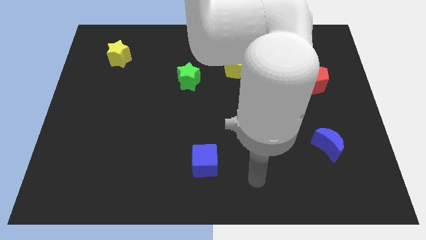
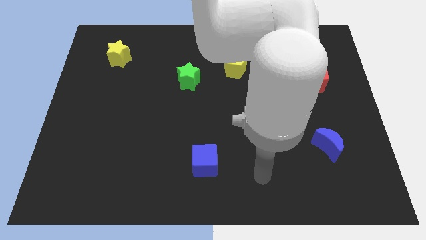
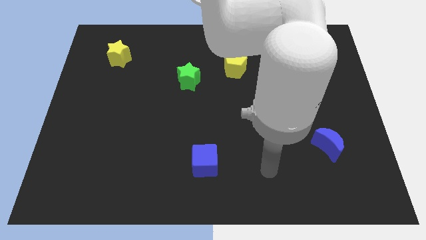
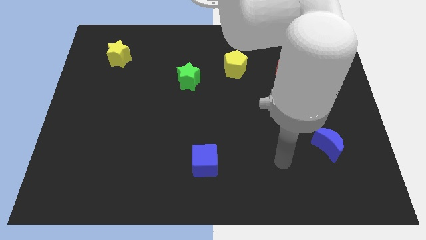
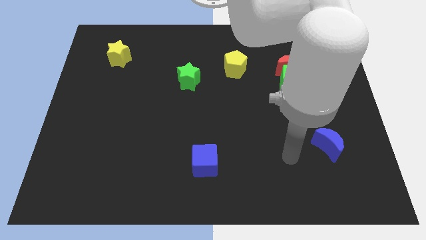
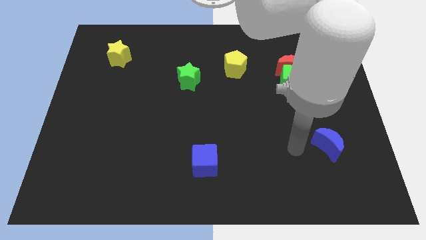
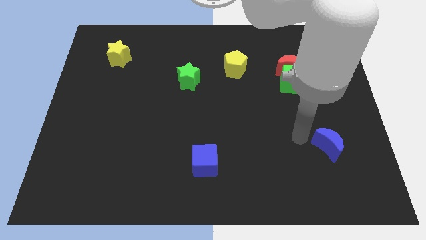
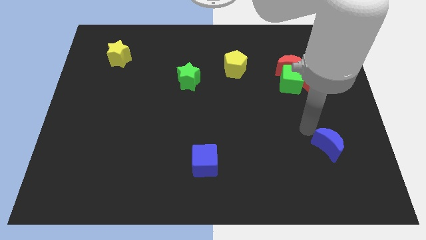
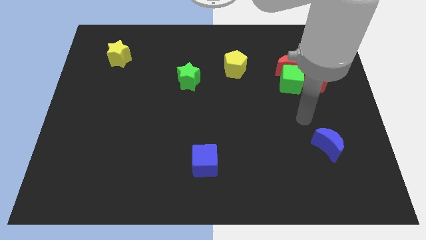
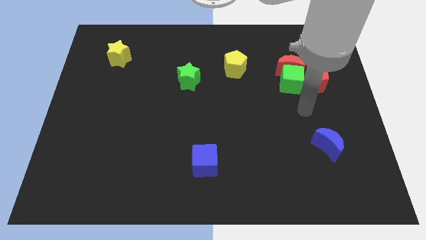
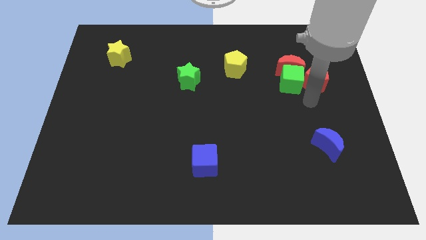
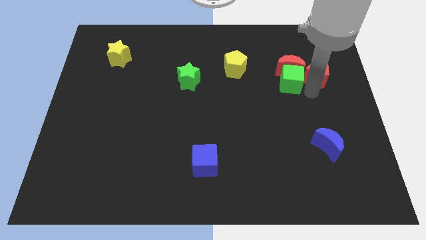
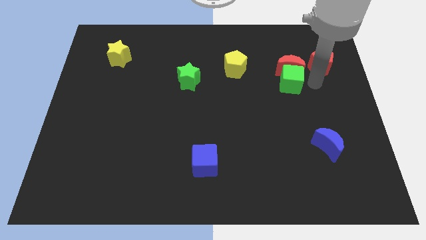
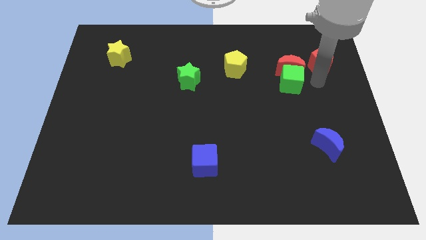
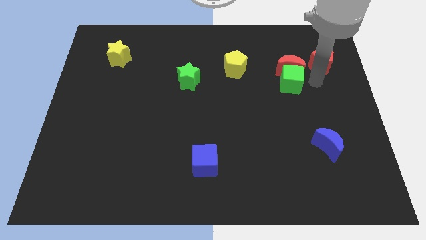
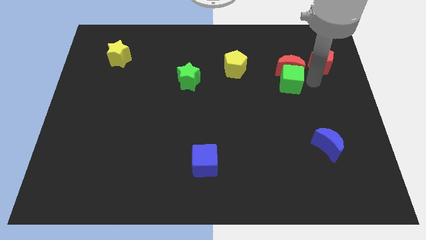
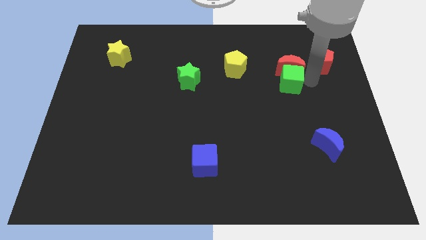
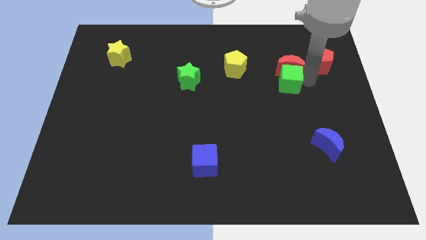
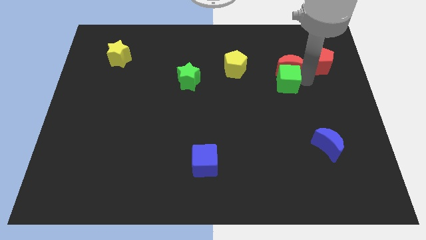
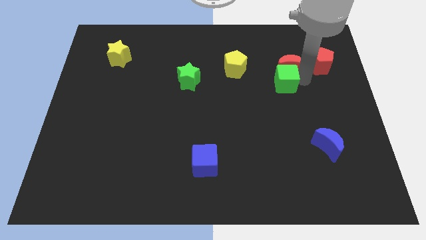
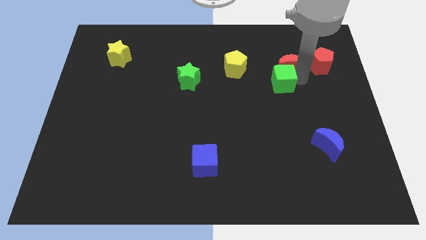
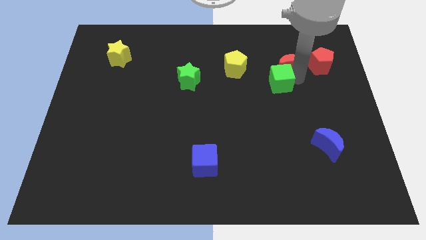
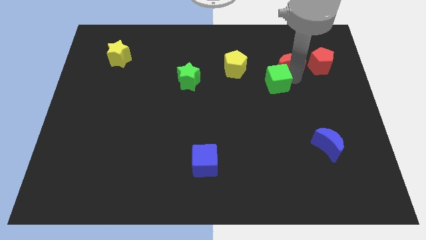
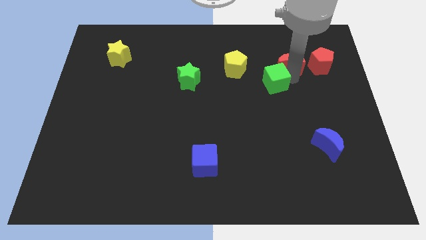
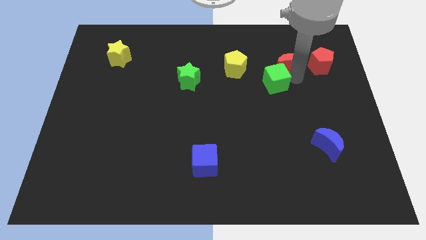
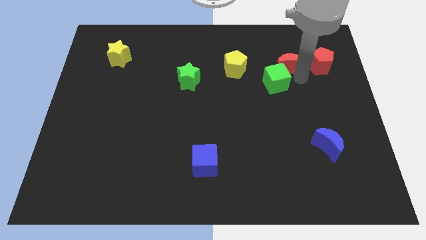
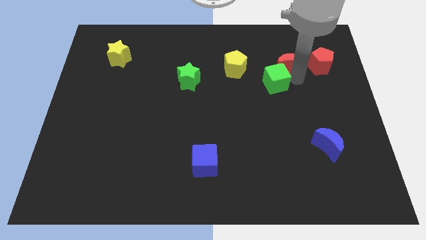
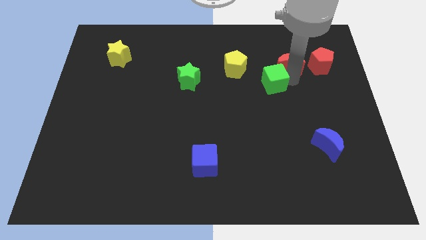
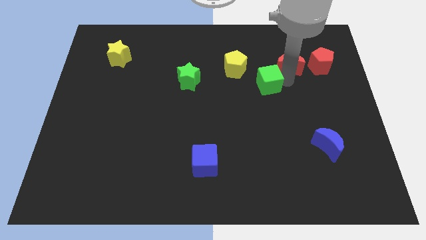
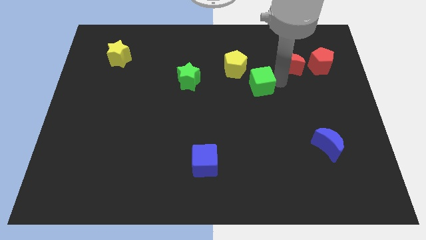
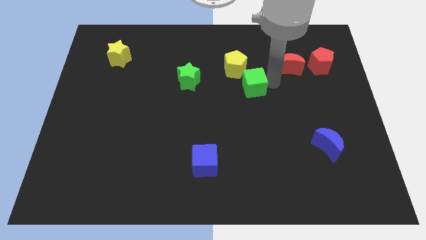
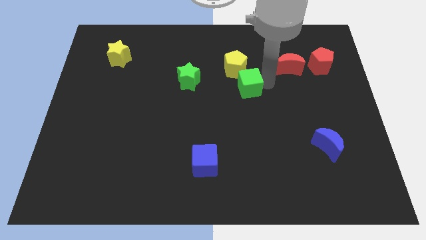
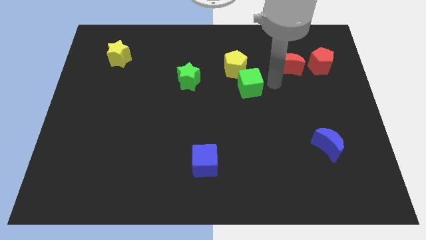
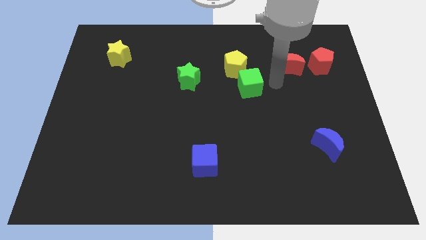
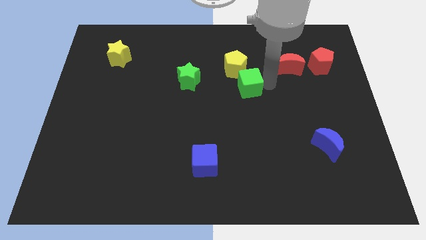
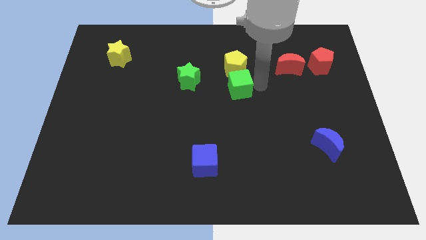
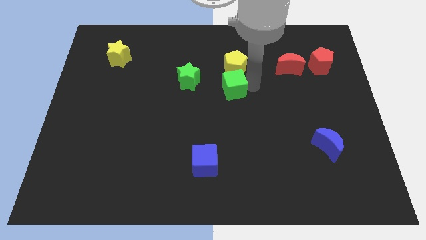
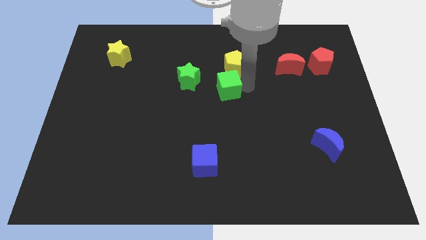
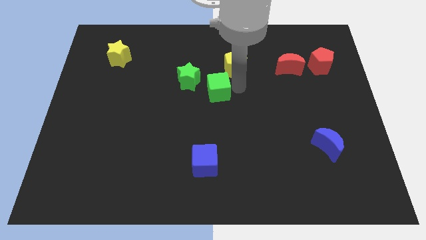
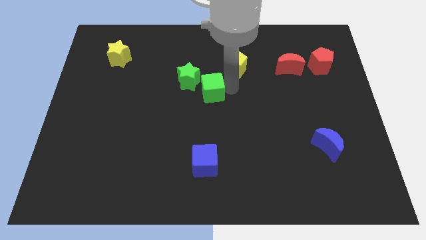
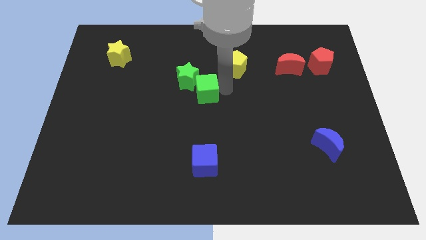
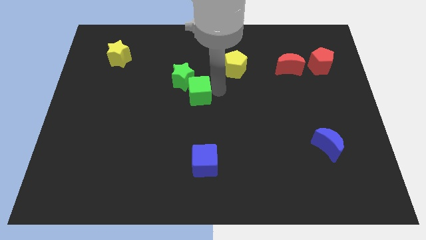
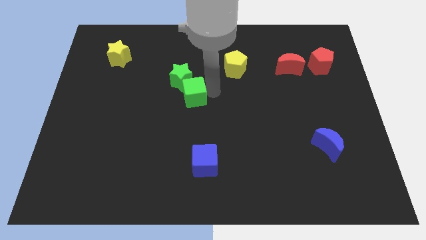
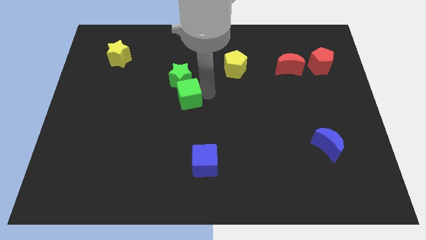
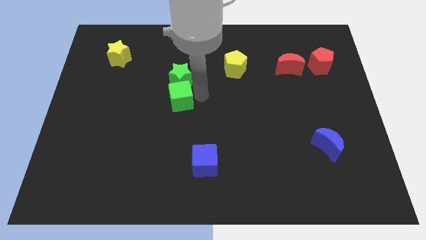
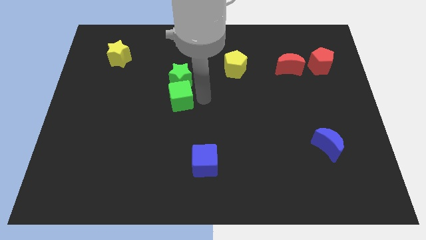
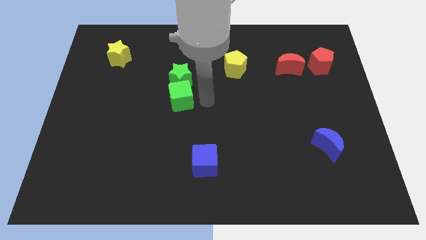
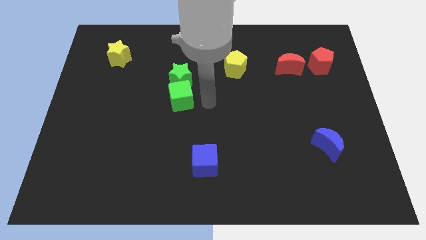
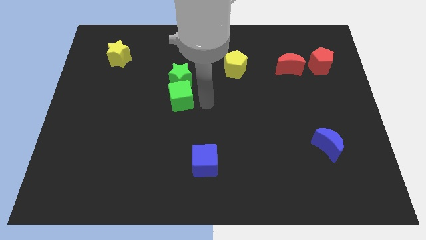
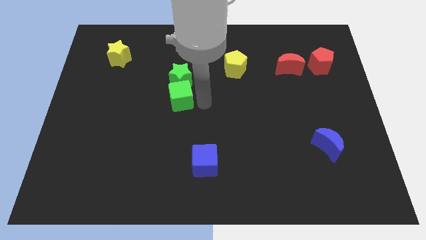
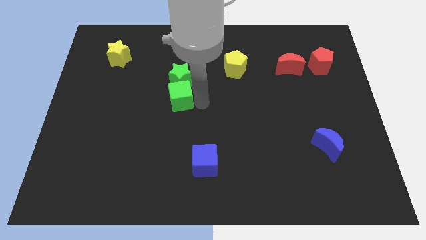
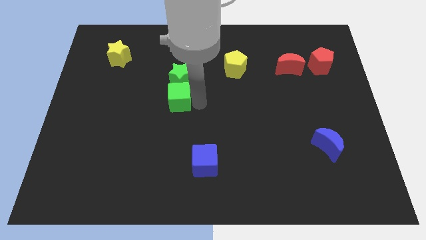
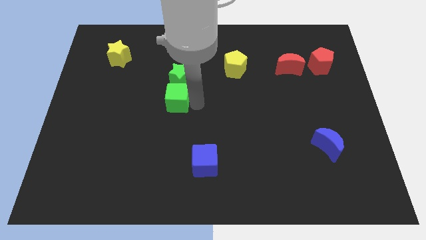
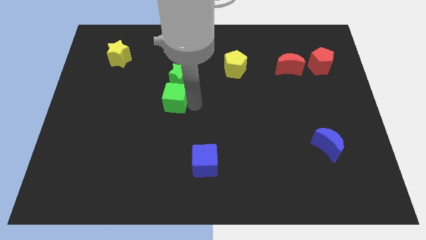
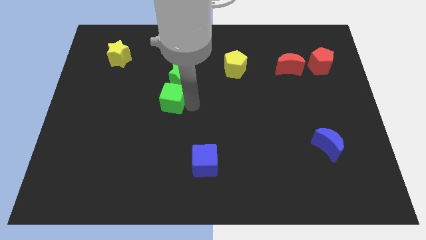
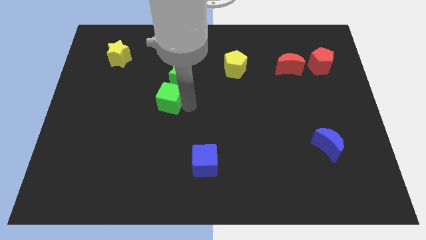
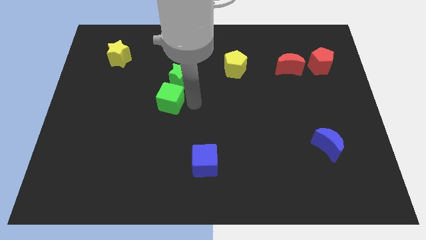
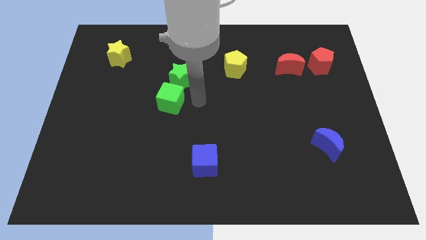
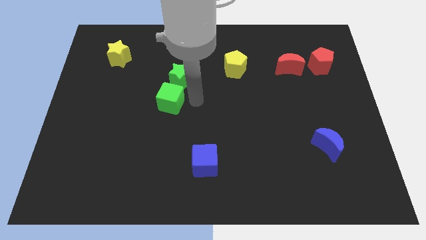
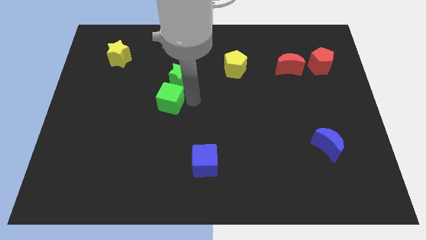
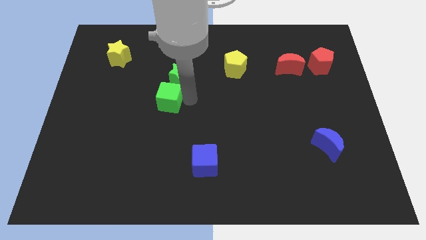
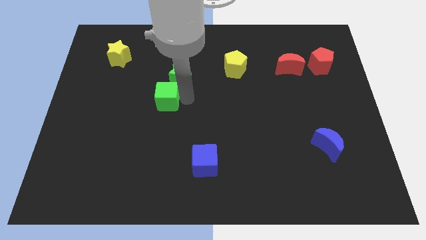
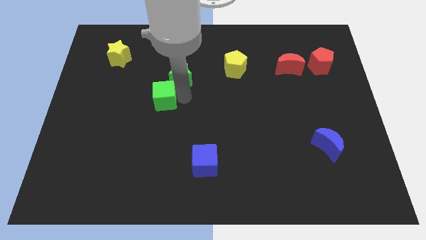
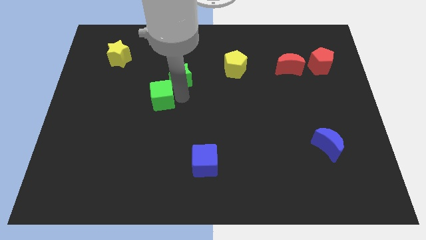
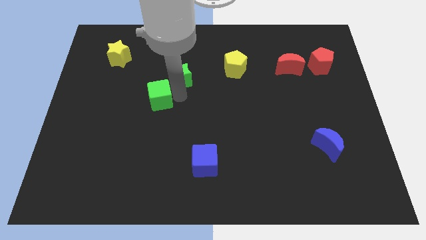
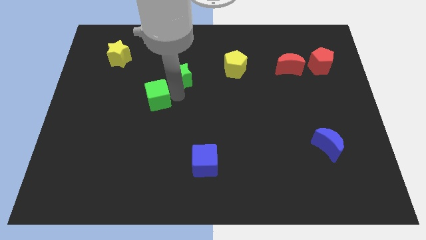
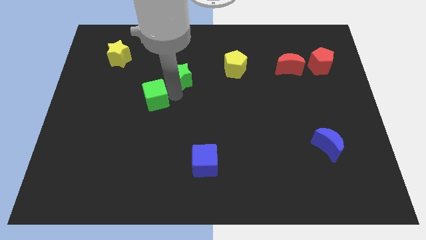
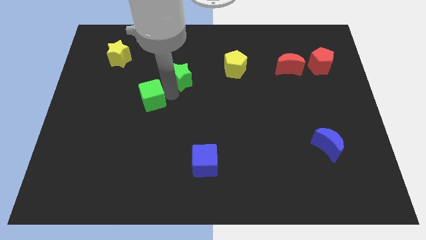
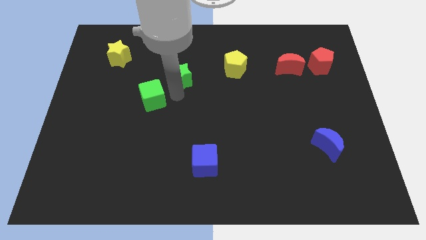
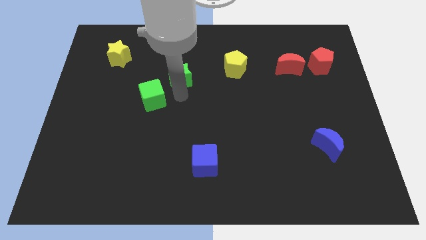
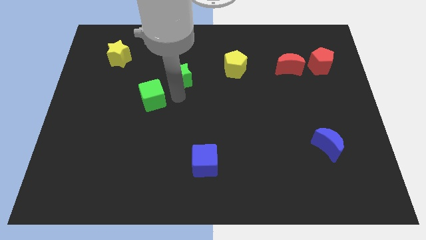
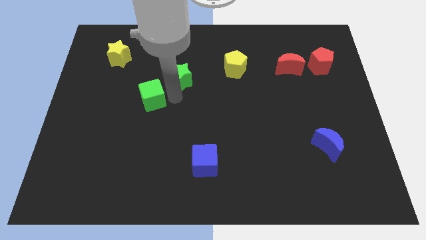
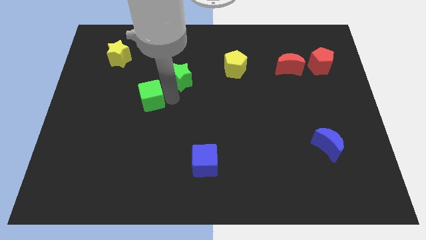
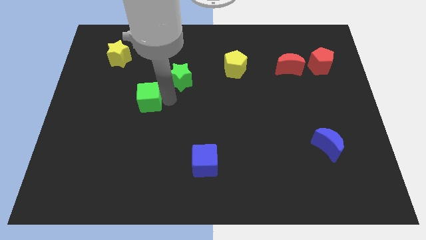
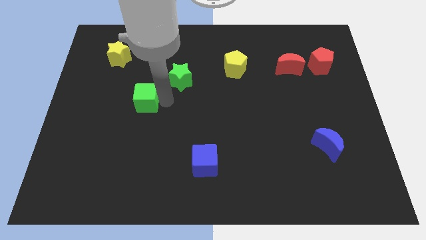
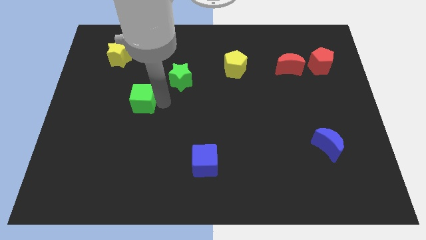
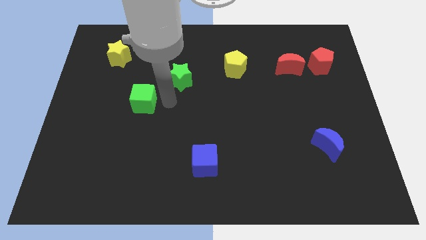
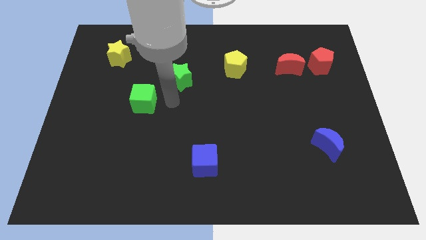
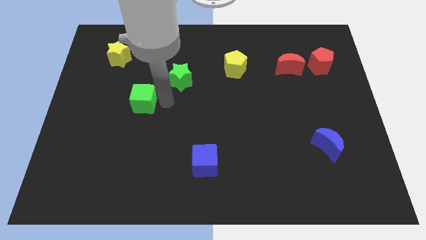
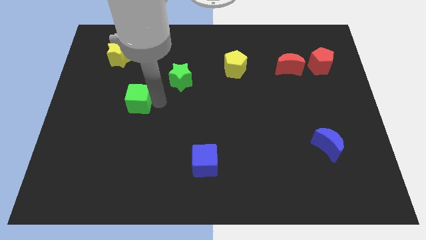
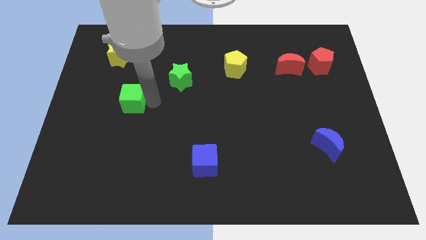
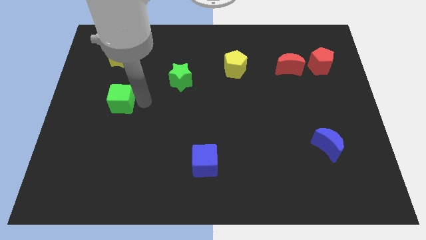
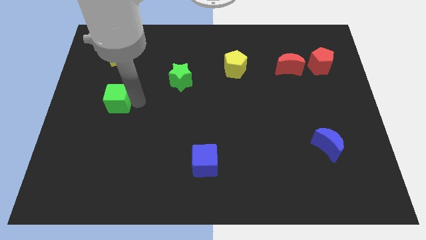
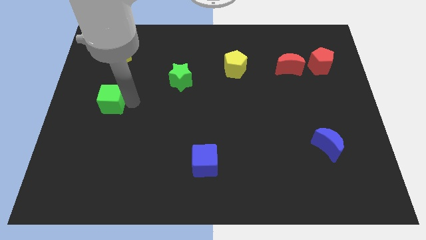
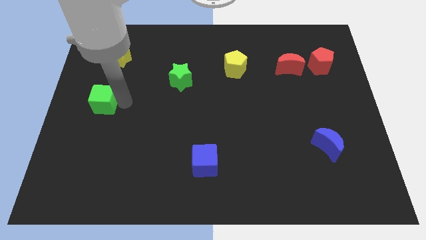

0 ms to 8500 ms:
push the green cube to the left side of the board
